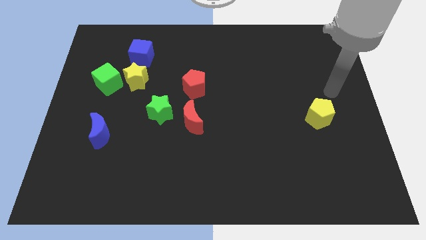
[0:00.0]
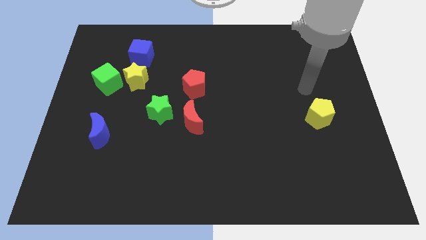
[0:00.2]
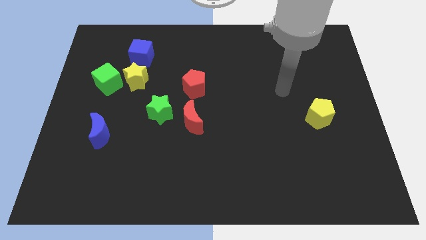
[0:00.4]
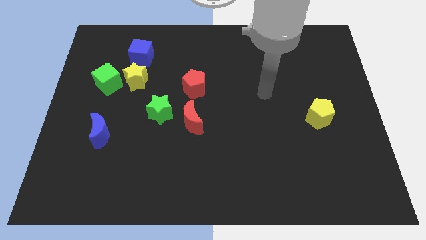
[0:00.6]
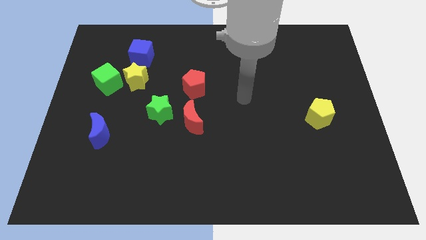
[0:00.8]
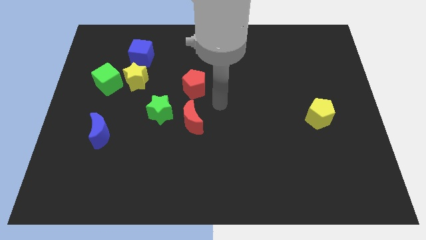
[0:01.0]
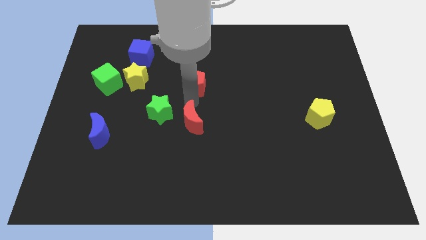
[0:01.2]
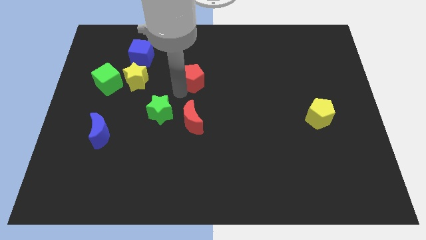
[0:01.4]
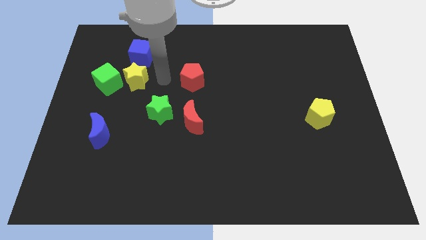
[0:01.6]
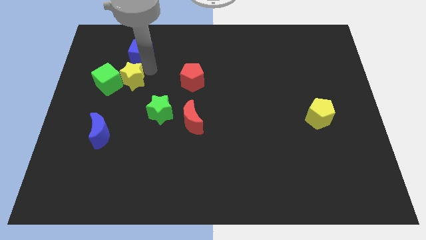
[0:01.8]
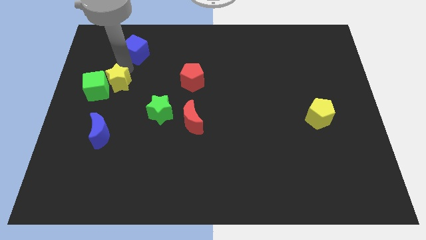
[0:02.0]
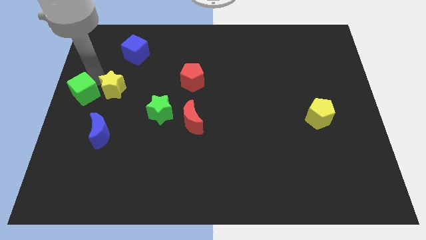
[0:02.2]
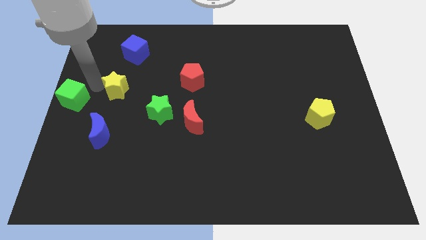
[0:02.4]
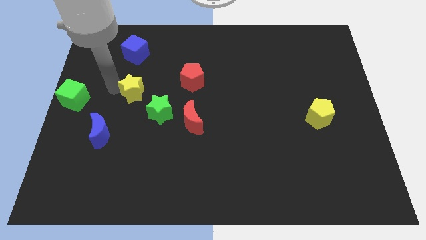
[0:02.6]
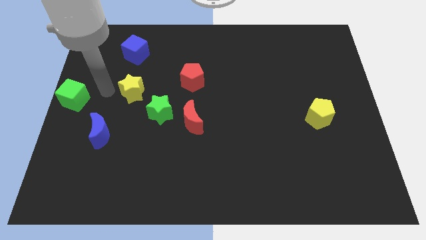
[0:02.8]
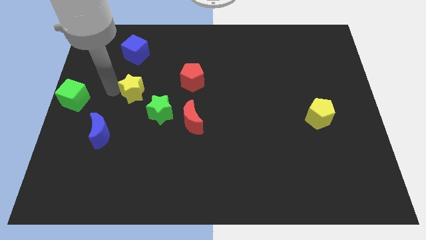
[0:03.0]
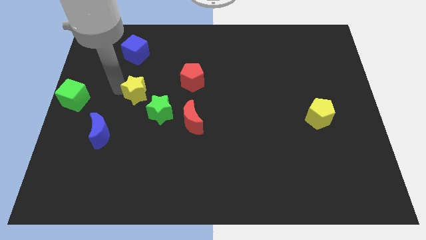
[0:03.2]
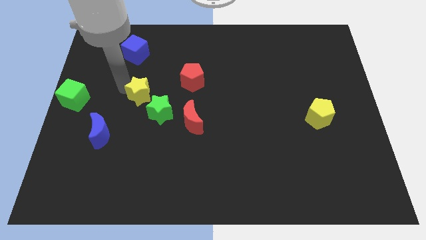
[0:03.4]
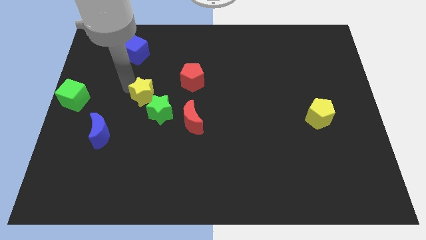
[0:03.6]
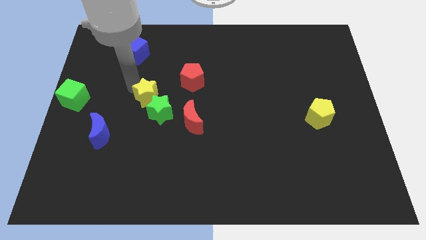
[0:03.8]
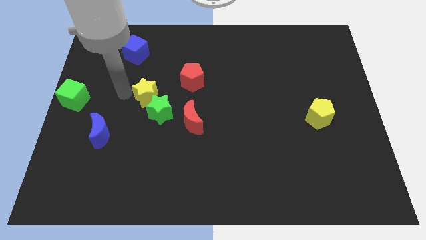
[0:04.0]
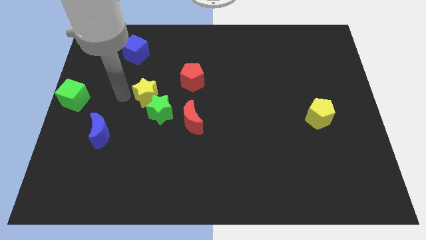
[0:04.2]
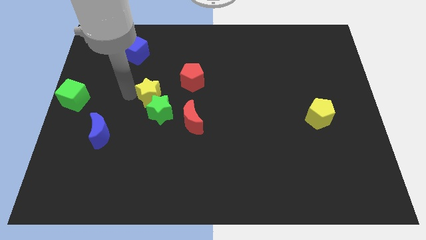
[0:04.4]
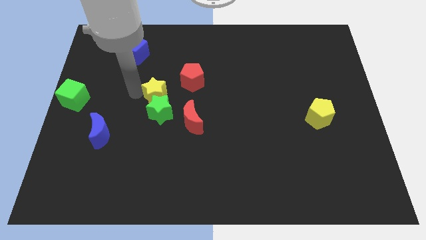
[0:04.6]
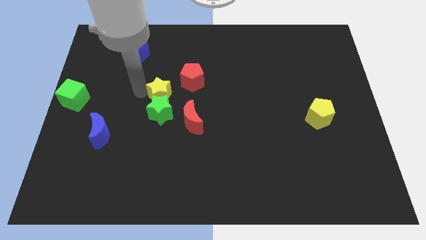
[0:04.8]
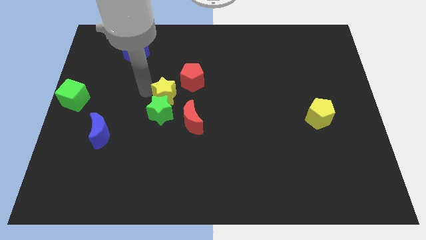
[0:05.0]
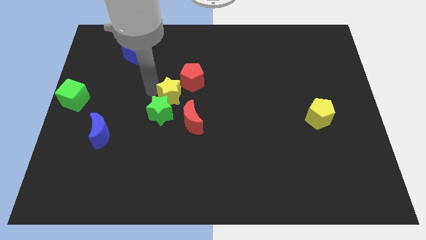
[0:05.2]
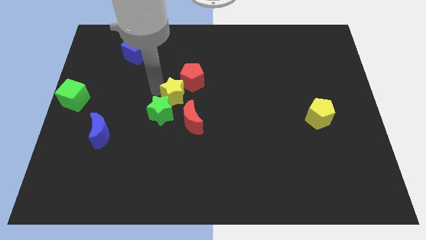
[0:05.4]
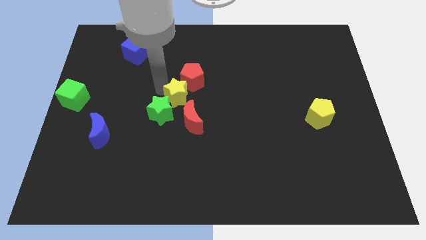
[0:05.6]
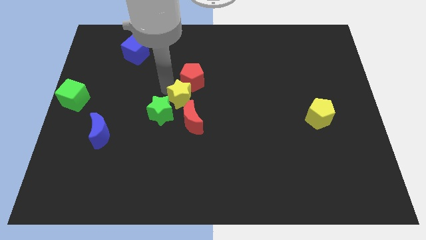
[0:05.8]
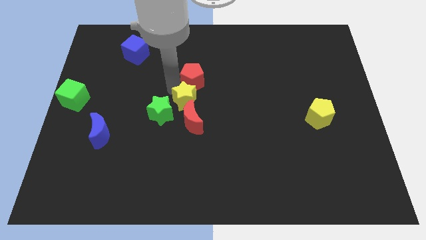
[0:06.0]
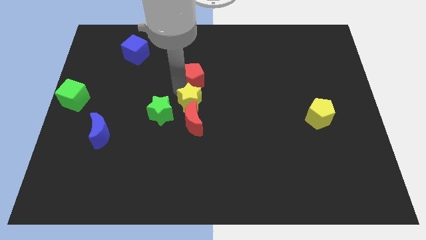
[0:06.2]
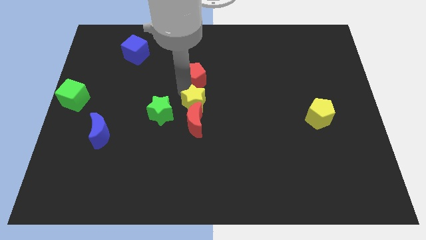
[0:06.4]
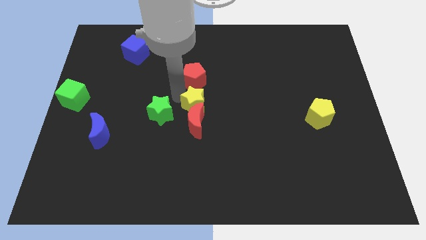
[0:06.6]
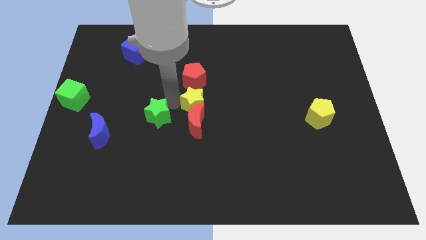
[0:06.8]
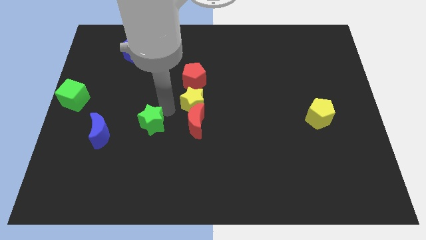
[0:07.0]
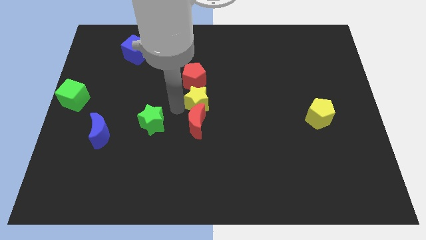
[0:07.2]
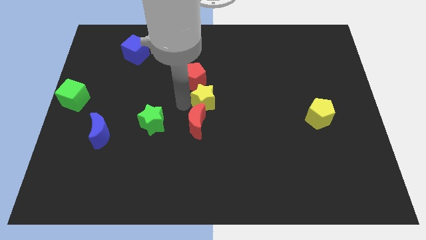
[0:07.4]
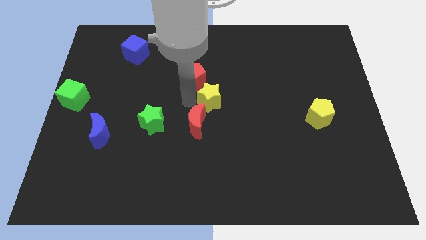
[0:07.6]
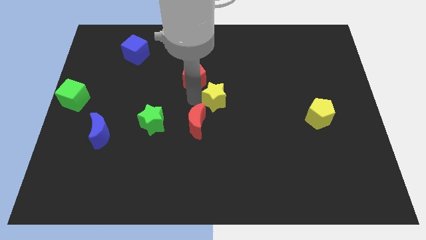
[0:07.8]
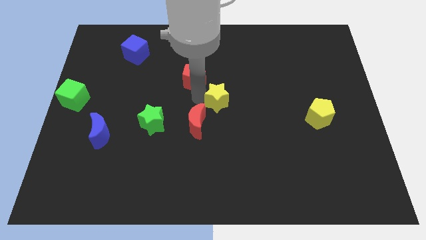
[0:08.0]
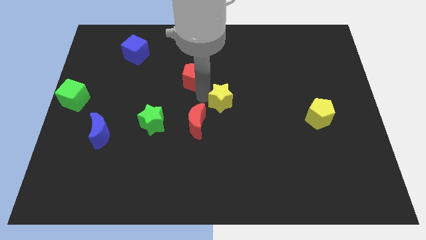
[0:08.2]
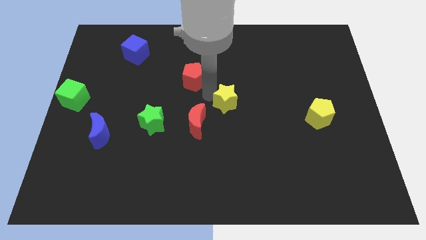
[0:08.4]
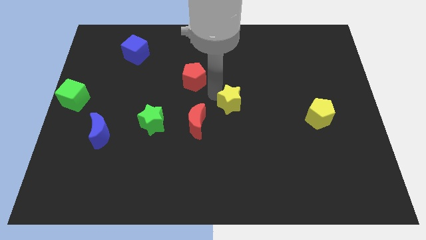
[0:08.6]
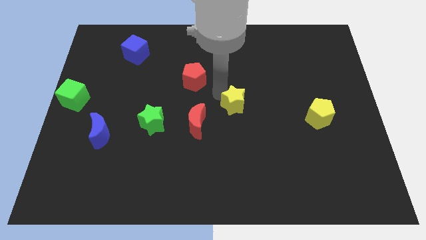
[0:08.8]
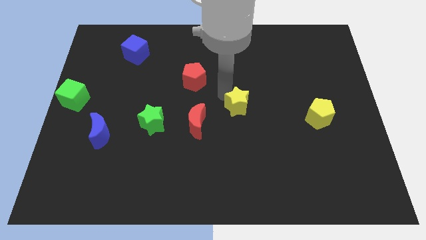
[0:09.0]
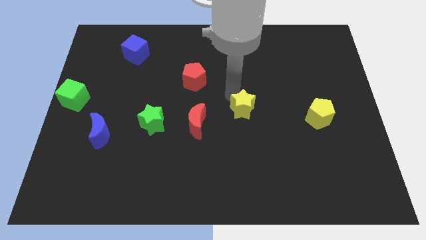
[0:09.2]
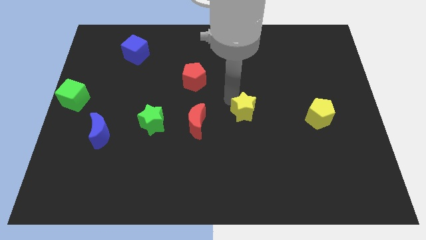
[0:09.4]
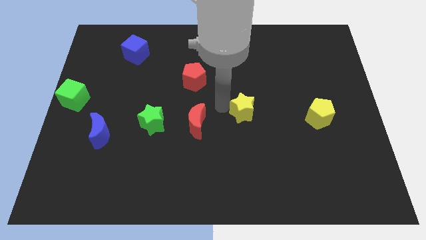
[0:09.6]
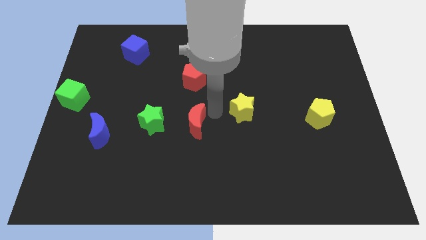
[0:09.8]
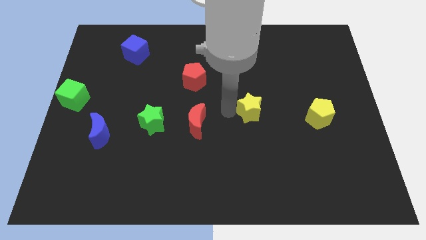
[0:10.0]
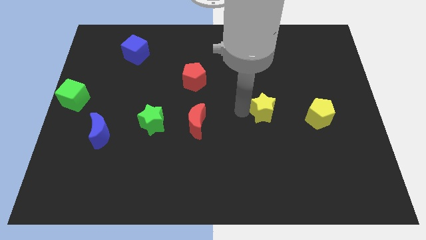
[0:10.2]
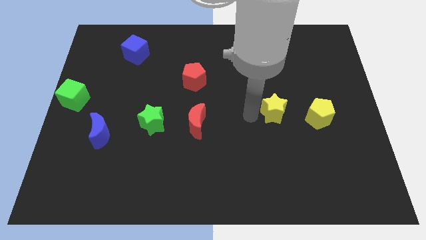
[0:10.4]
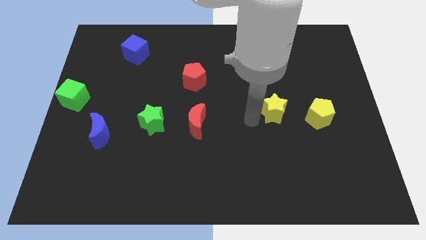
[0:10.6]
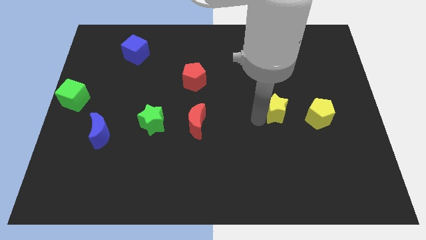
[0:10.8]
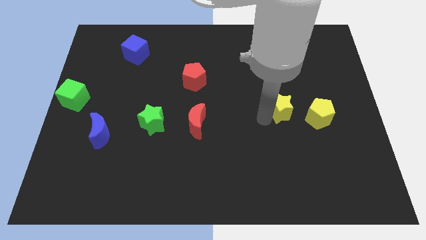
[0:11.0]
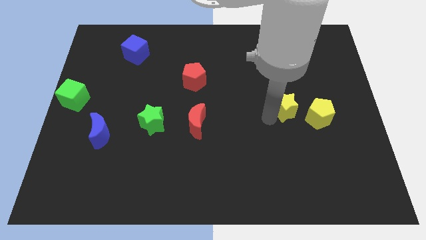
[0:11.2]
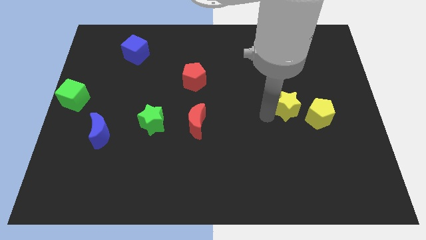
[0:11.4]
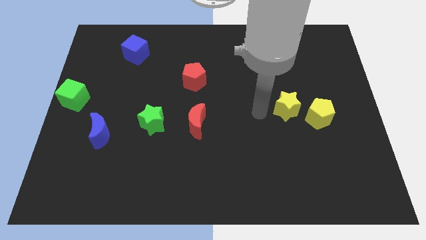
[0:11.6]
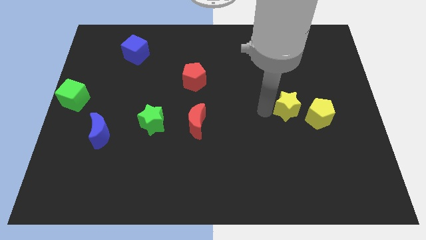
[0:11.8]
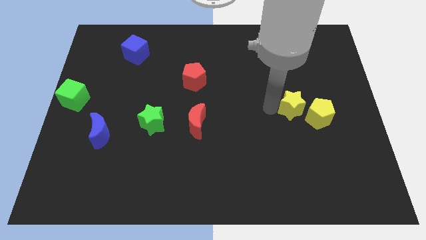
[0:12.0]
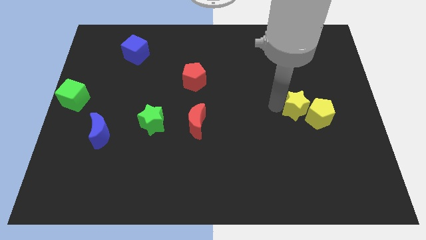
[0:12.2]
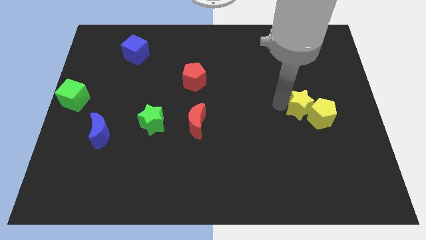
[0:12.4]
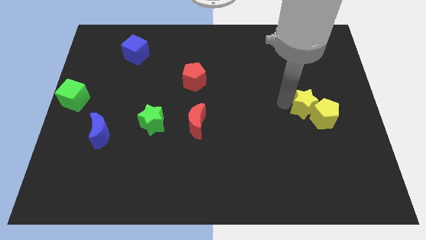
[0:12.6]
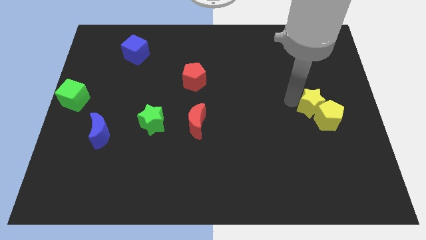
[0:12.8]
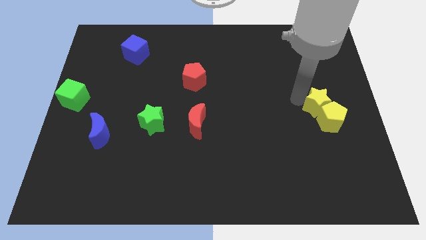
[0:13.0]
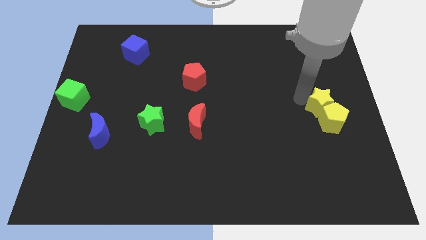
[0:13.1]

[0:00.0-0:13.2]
push the yellow star to the right side of the board
